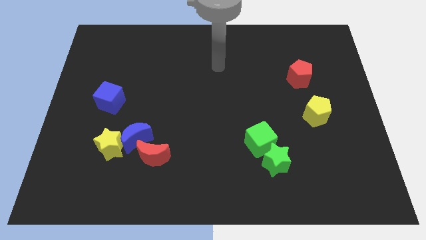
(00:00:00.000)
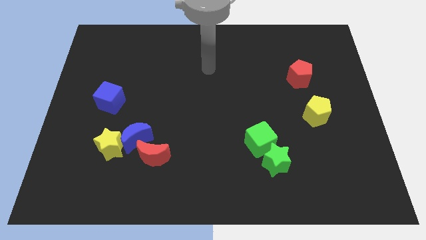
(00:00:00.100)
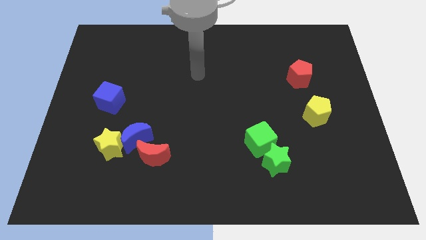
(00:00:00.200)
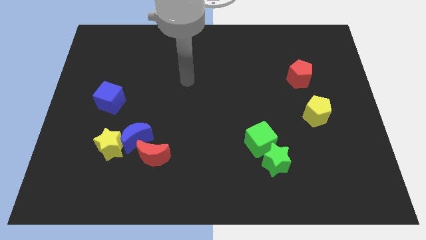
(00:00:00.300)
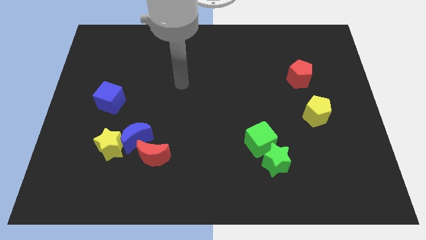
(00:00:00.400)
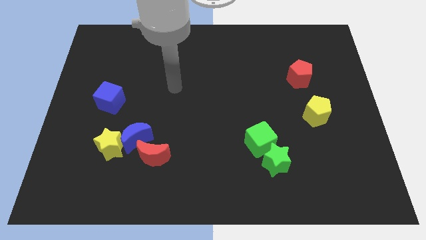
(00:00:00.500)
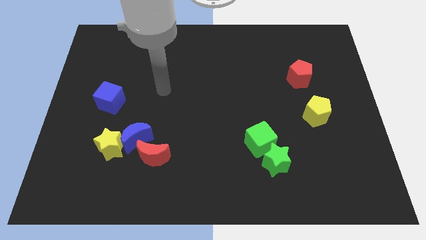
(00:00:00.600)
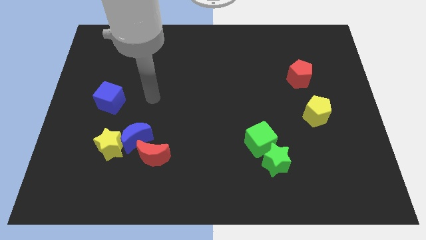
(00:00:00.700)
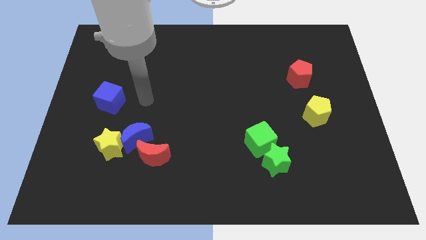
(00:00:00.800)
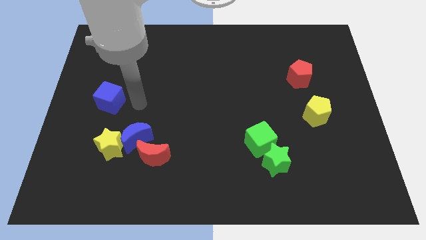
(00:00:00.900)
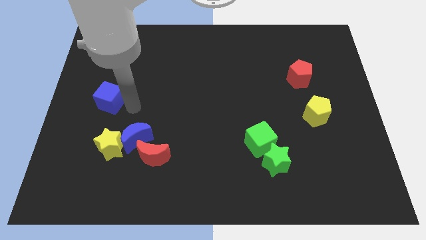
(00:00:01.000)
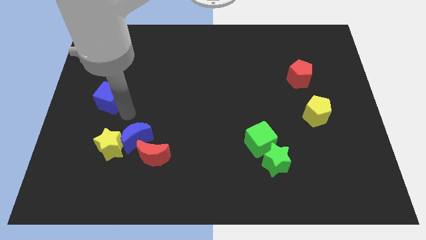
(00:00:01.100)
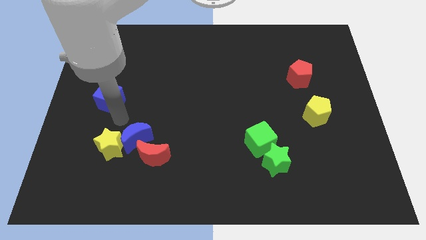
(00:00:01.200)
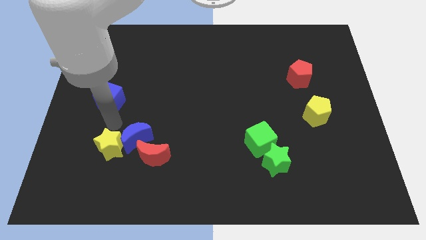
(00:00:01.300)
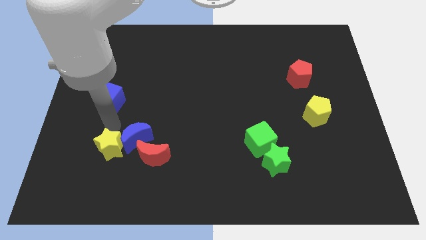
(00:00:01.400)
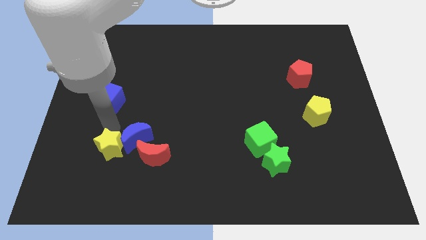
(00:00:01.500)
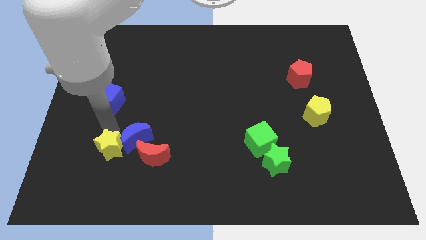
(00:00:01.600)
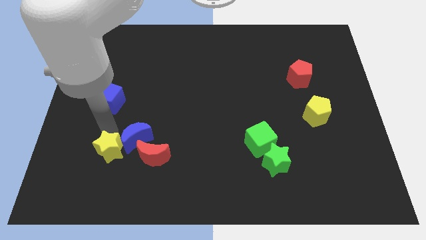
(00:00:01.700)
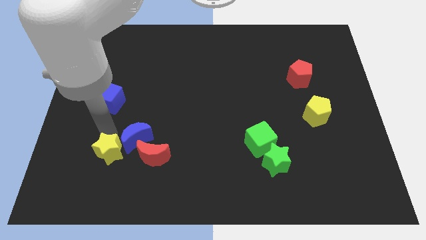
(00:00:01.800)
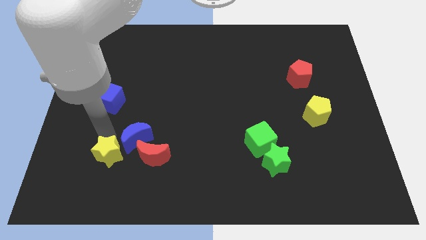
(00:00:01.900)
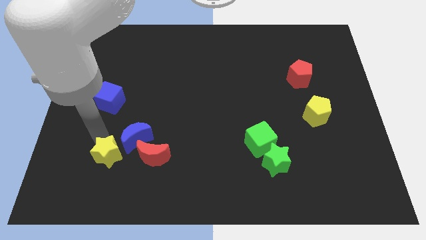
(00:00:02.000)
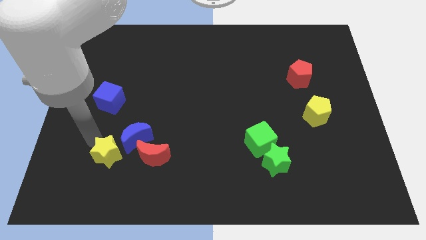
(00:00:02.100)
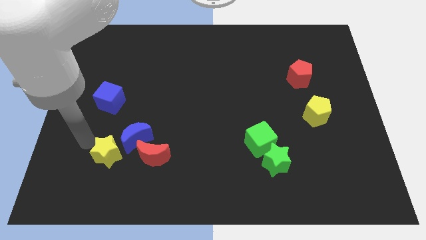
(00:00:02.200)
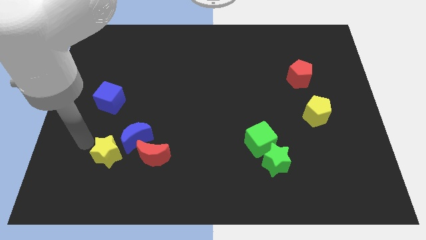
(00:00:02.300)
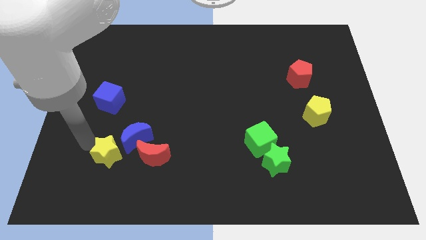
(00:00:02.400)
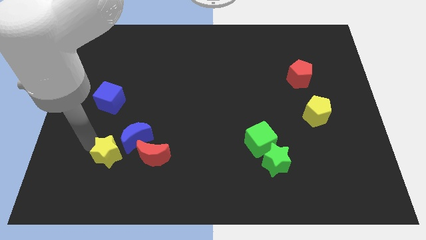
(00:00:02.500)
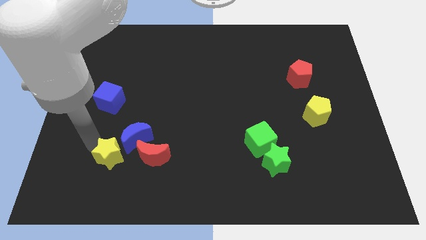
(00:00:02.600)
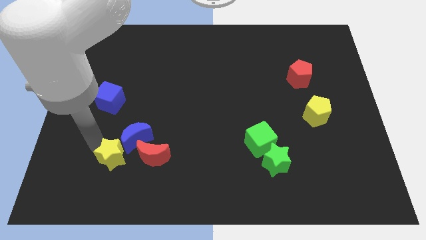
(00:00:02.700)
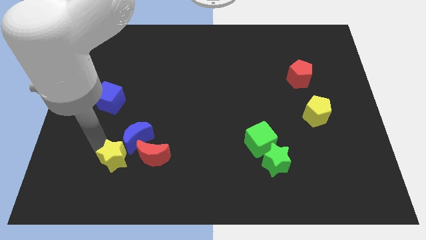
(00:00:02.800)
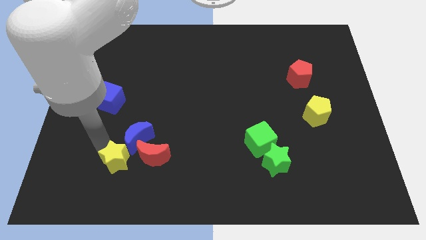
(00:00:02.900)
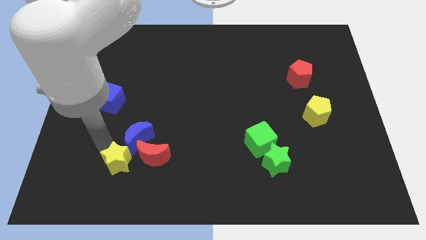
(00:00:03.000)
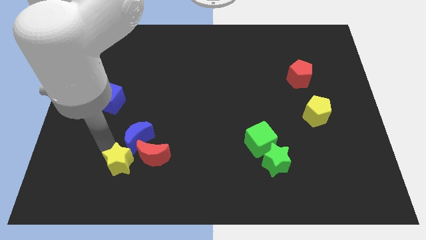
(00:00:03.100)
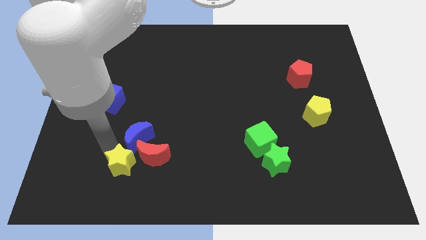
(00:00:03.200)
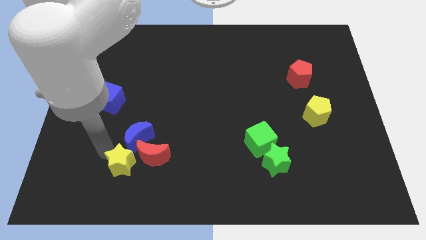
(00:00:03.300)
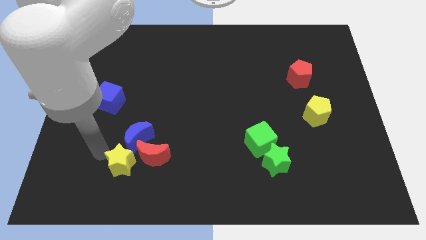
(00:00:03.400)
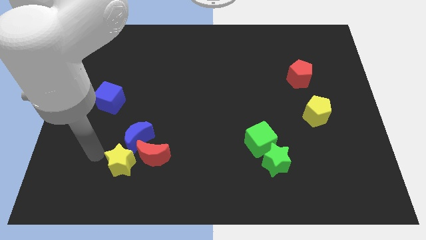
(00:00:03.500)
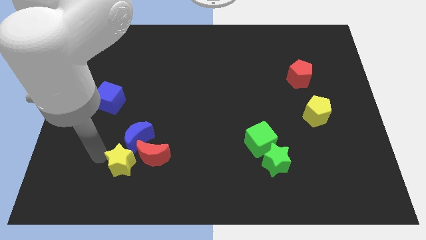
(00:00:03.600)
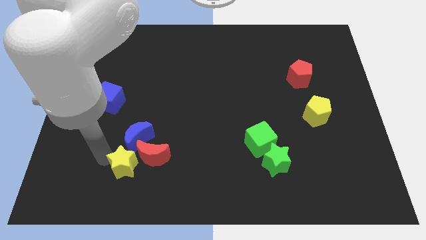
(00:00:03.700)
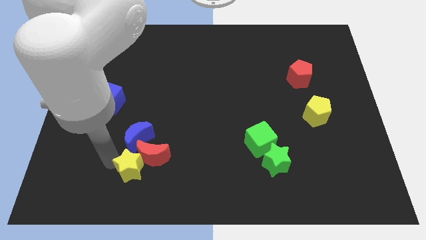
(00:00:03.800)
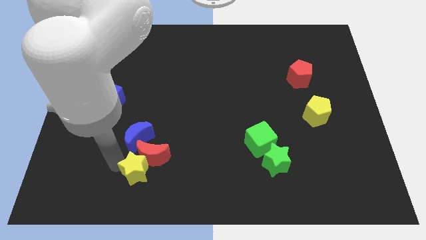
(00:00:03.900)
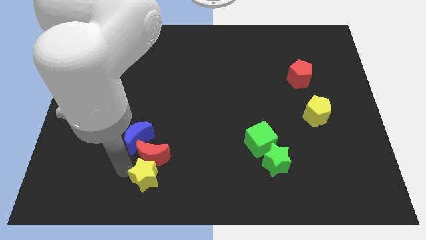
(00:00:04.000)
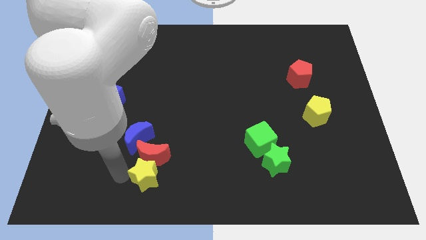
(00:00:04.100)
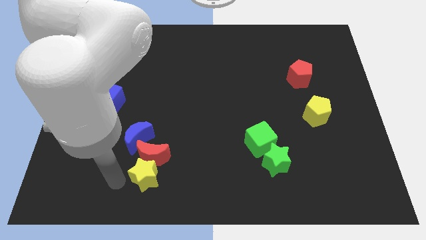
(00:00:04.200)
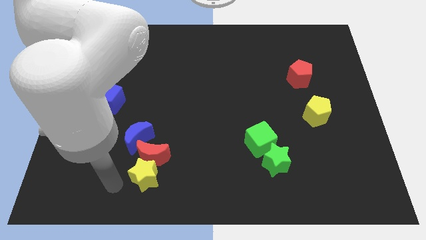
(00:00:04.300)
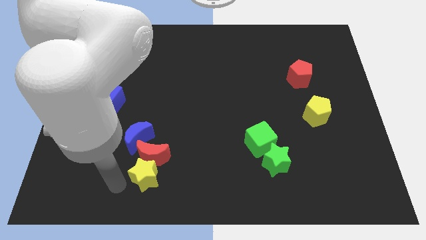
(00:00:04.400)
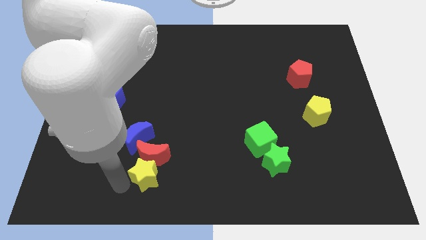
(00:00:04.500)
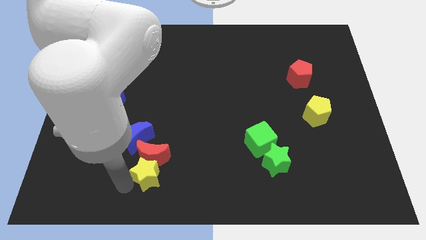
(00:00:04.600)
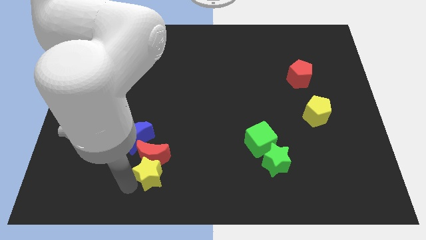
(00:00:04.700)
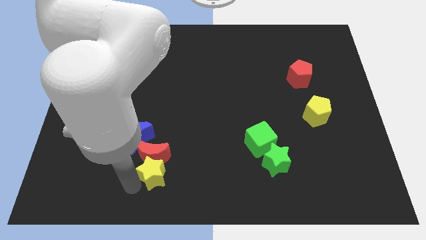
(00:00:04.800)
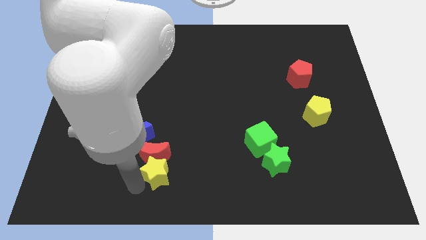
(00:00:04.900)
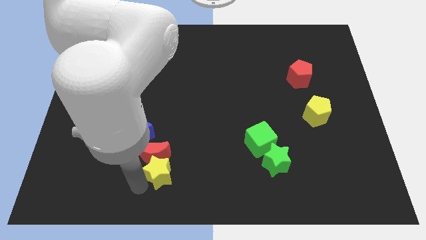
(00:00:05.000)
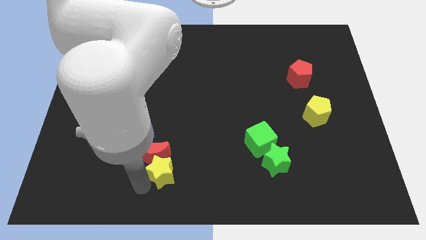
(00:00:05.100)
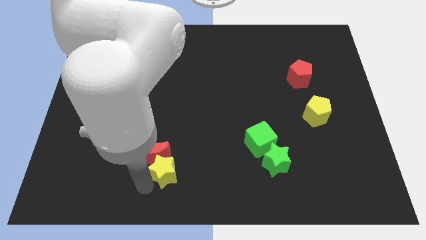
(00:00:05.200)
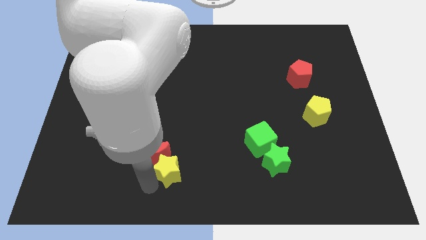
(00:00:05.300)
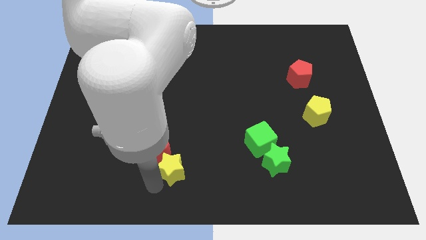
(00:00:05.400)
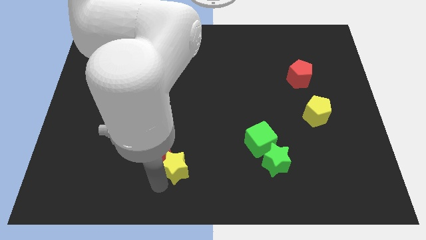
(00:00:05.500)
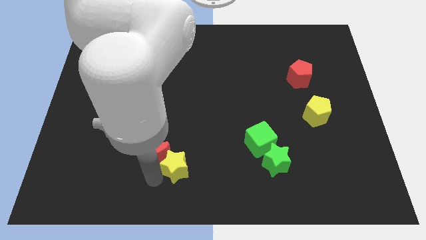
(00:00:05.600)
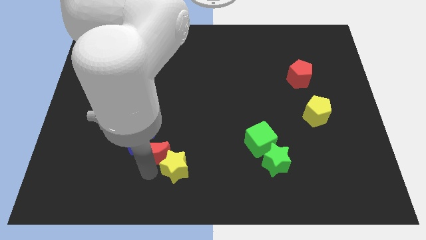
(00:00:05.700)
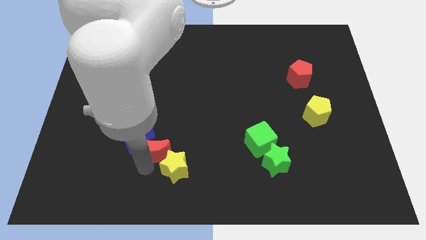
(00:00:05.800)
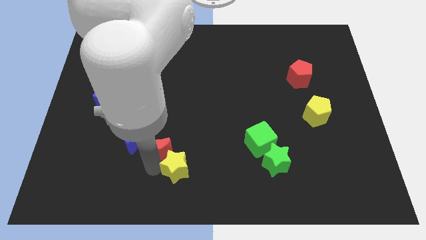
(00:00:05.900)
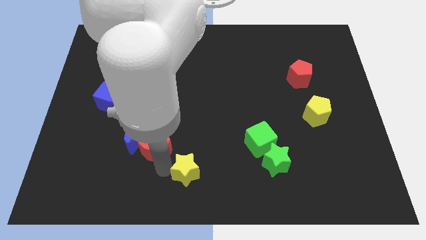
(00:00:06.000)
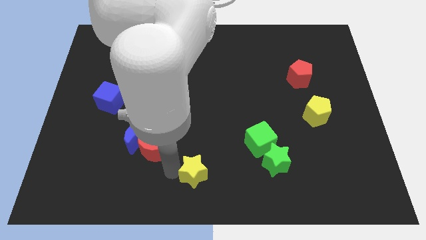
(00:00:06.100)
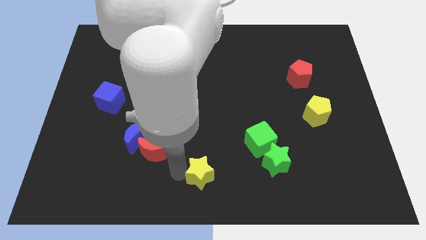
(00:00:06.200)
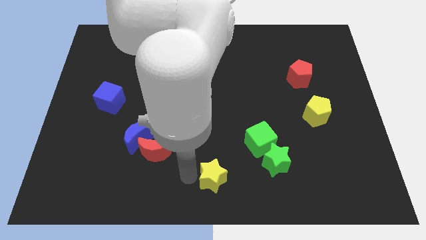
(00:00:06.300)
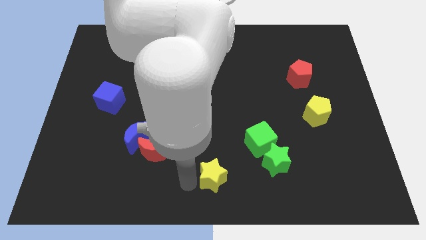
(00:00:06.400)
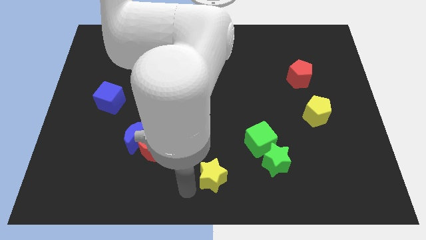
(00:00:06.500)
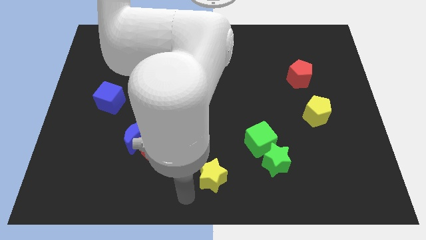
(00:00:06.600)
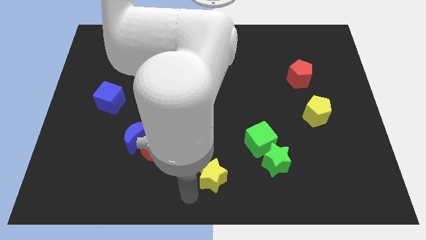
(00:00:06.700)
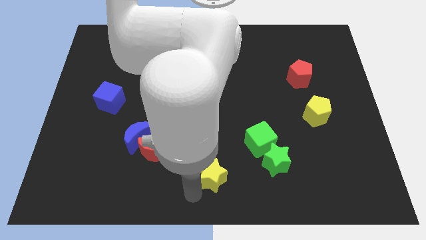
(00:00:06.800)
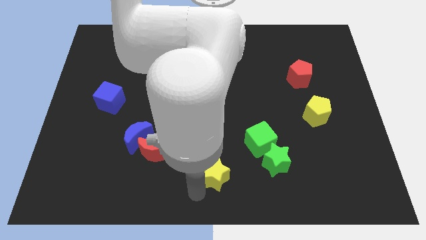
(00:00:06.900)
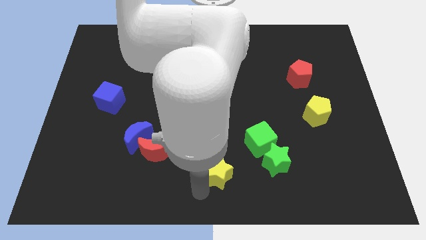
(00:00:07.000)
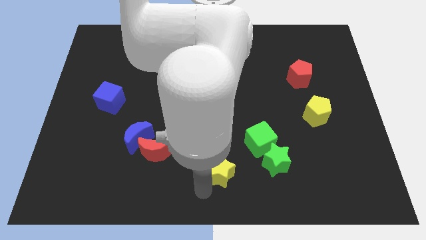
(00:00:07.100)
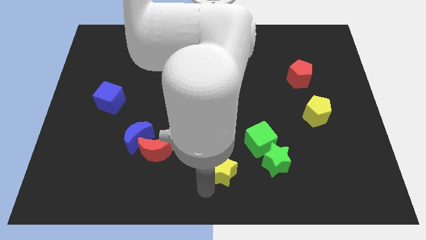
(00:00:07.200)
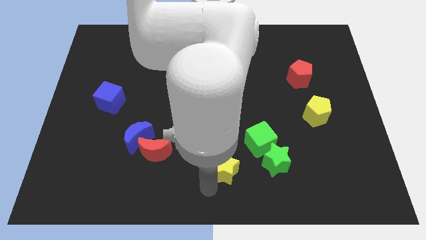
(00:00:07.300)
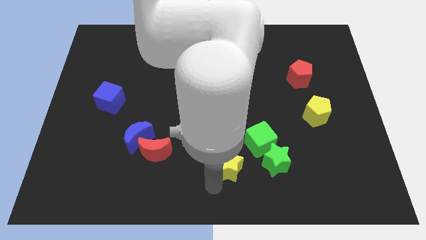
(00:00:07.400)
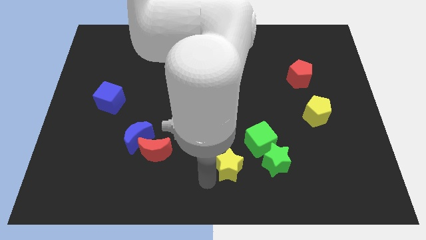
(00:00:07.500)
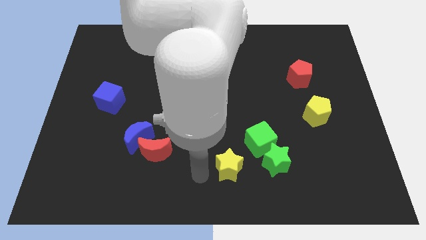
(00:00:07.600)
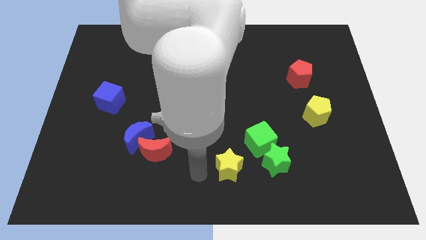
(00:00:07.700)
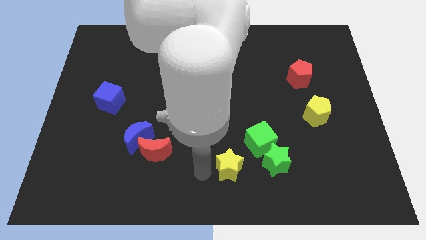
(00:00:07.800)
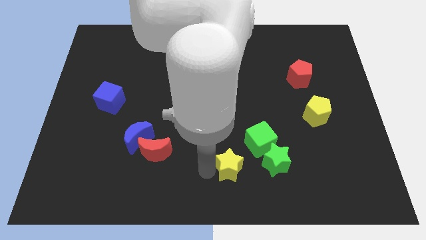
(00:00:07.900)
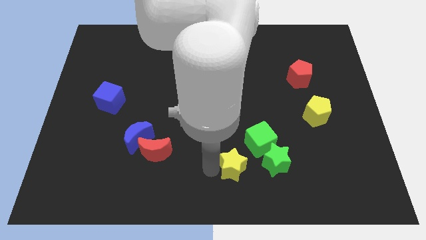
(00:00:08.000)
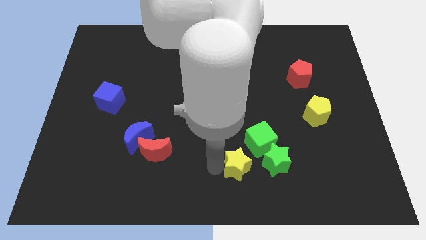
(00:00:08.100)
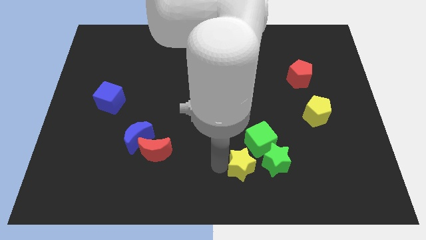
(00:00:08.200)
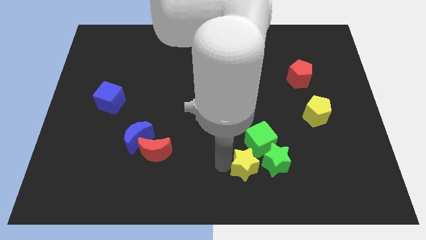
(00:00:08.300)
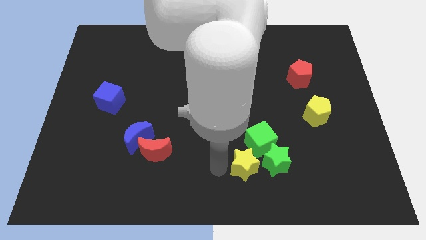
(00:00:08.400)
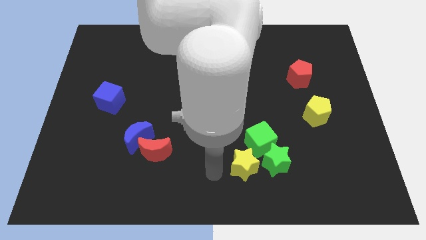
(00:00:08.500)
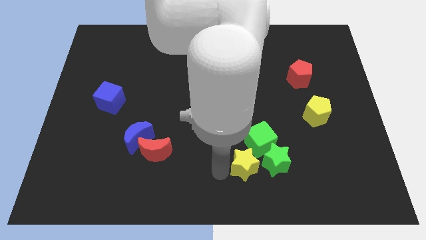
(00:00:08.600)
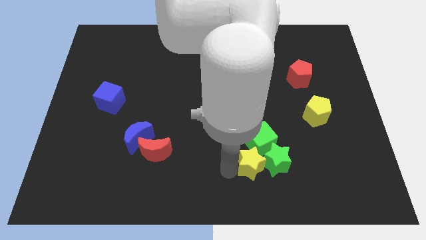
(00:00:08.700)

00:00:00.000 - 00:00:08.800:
push the yellow star towards the green star
